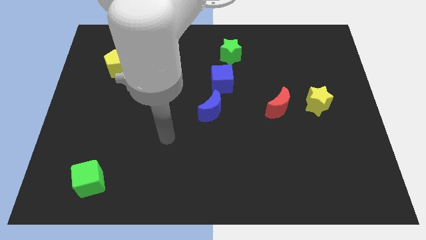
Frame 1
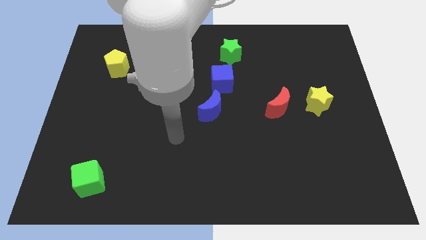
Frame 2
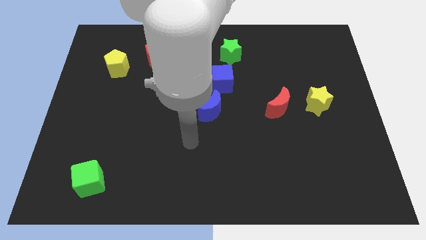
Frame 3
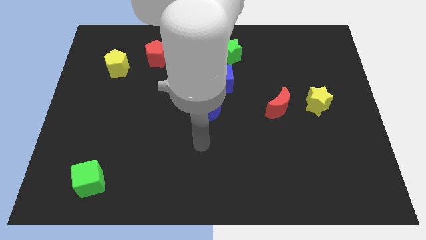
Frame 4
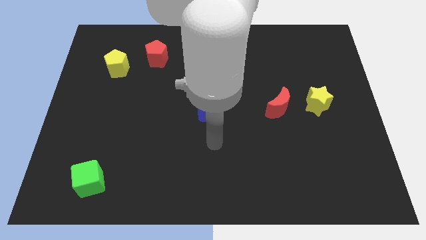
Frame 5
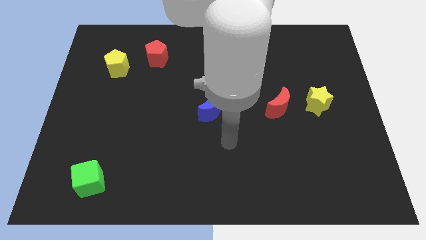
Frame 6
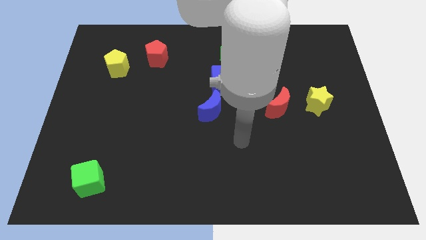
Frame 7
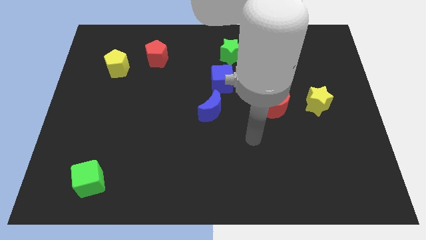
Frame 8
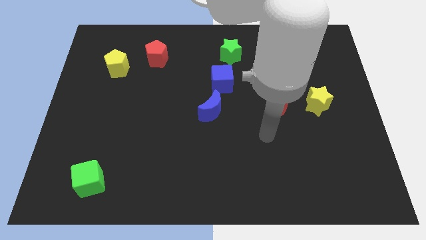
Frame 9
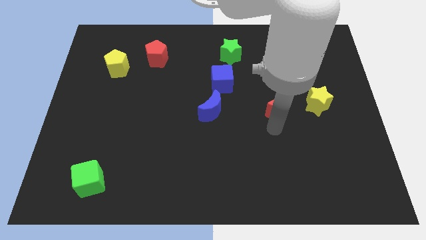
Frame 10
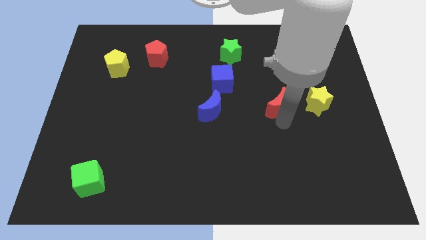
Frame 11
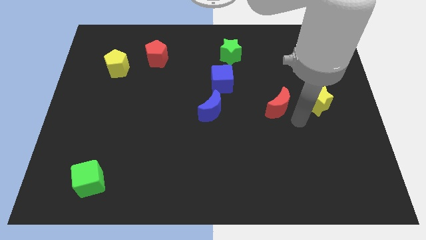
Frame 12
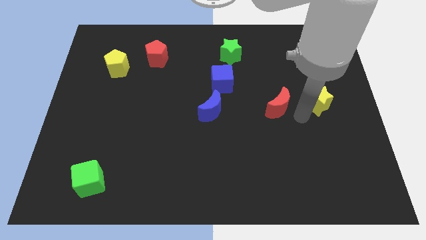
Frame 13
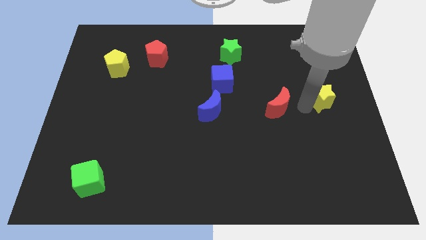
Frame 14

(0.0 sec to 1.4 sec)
separate the red moon from the yellow star

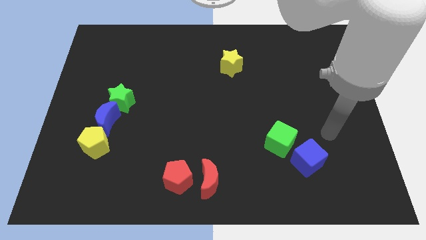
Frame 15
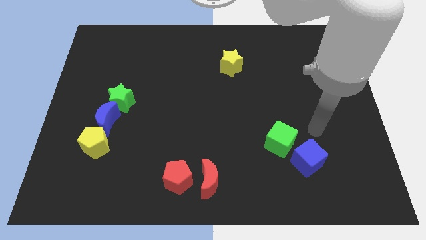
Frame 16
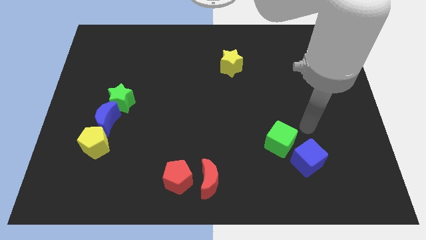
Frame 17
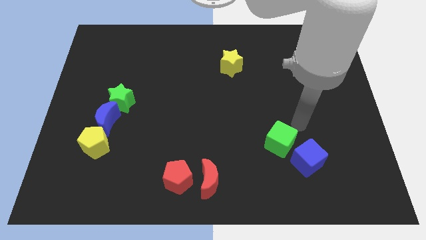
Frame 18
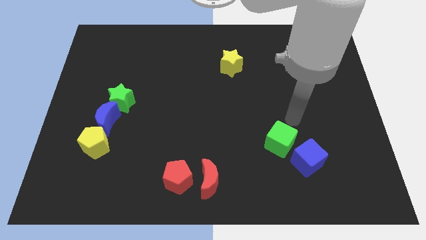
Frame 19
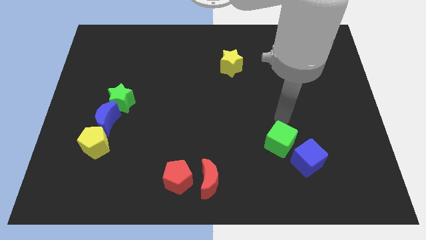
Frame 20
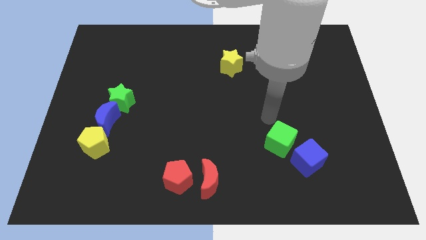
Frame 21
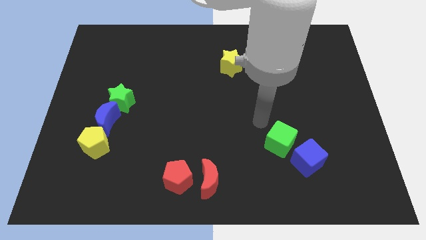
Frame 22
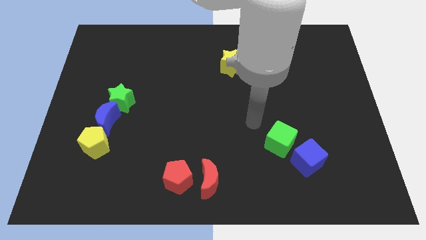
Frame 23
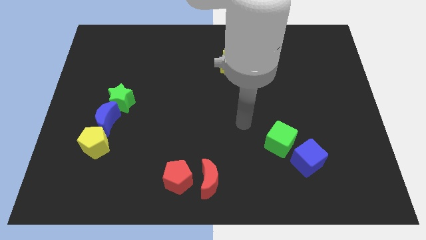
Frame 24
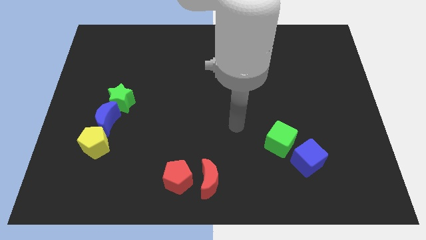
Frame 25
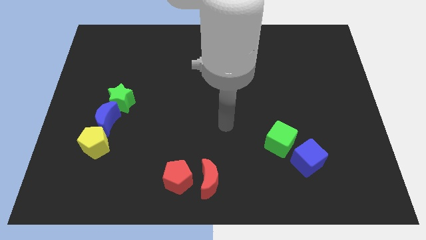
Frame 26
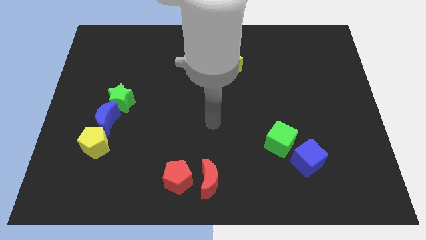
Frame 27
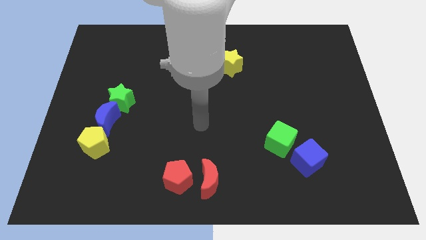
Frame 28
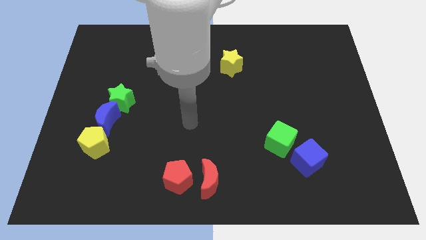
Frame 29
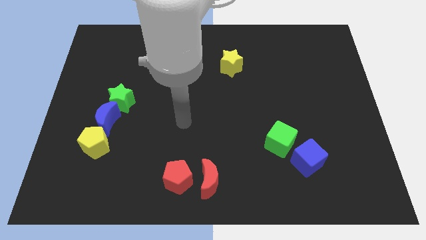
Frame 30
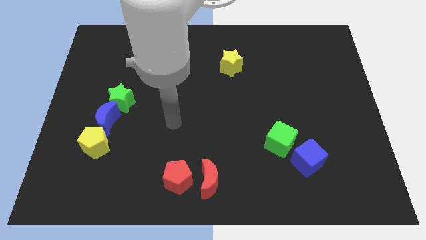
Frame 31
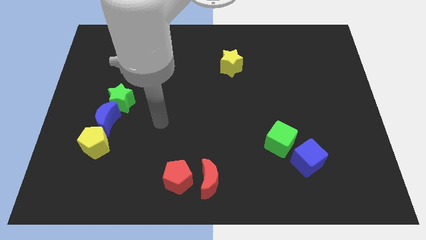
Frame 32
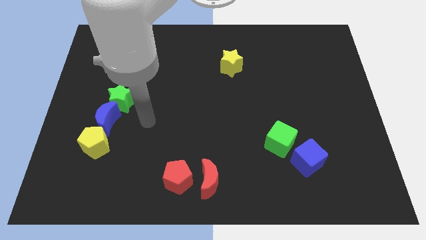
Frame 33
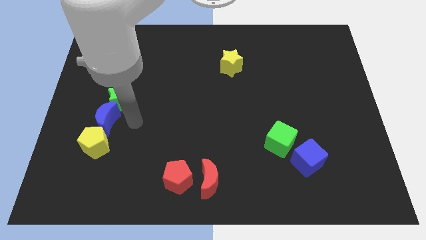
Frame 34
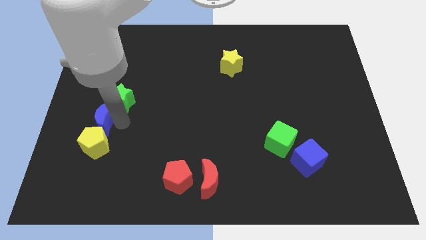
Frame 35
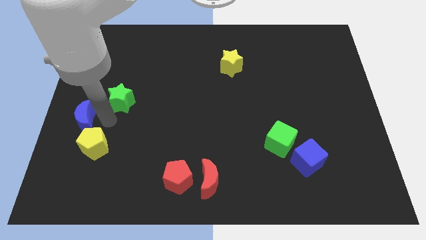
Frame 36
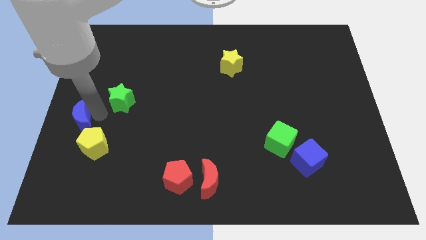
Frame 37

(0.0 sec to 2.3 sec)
separate the green star from the blue moon

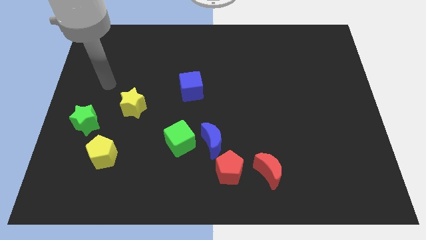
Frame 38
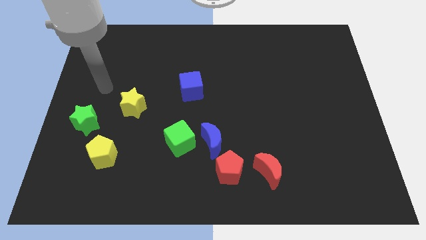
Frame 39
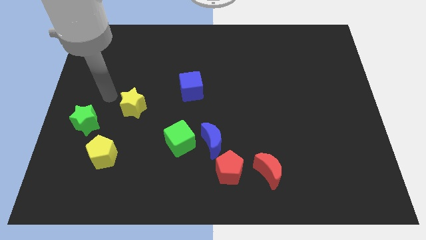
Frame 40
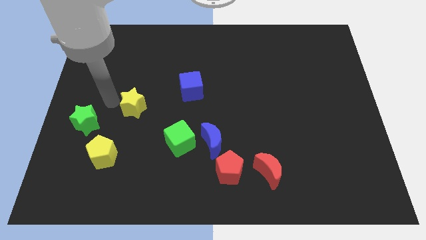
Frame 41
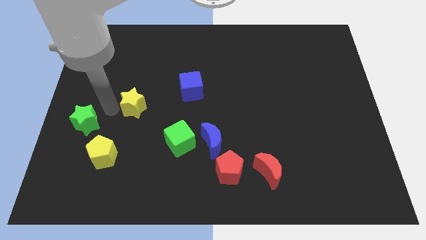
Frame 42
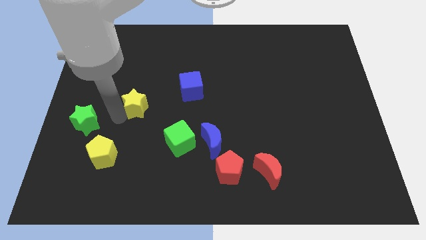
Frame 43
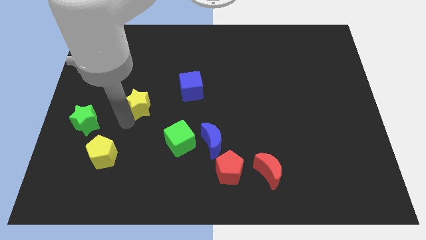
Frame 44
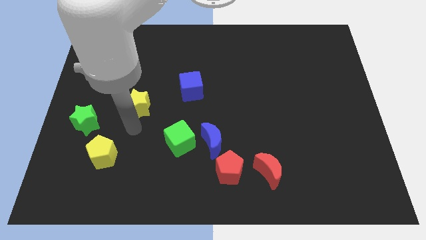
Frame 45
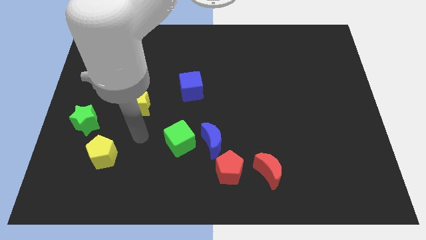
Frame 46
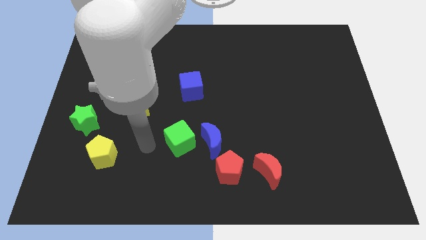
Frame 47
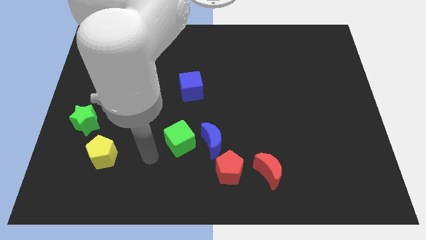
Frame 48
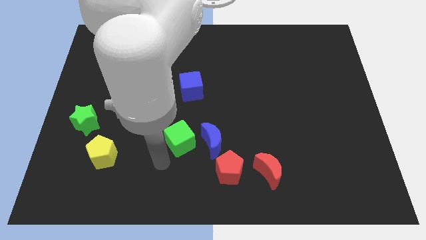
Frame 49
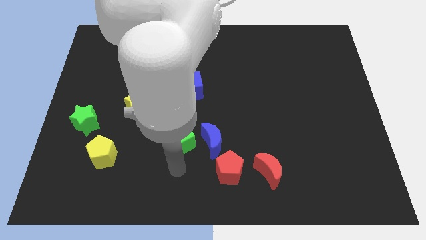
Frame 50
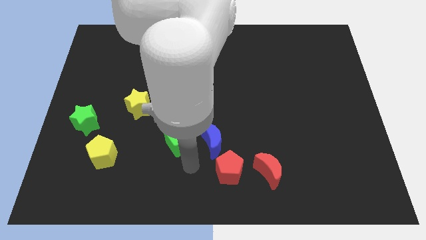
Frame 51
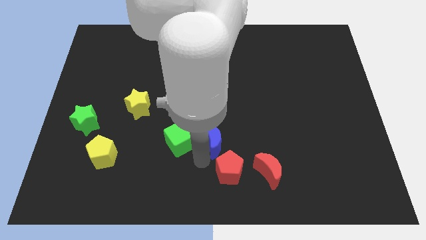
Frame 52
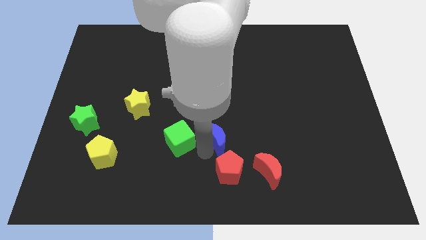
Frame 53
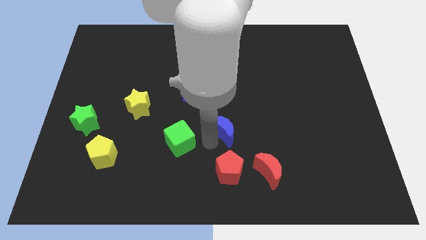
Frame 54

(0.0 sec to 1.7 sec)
move the green cube away from the blue moon

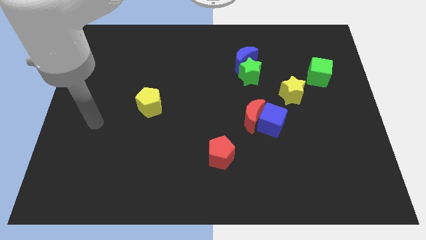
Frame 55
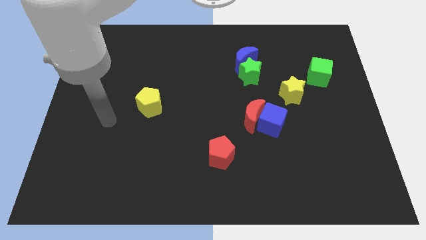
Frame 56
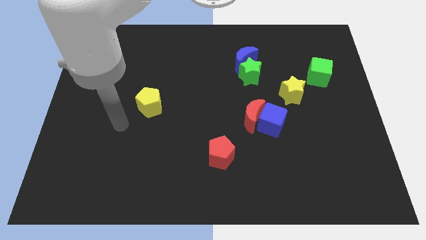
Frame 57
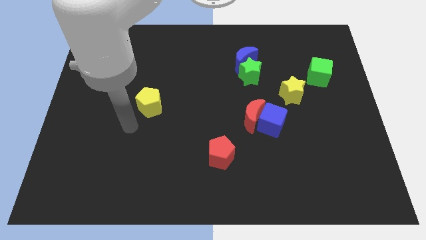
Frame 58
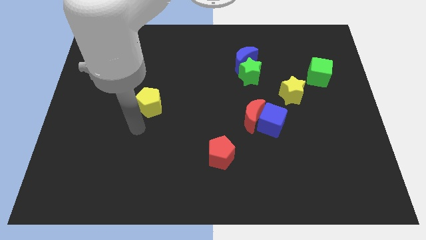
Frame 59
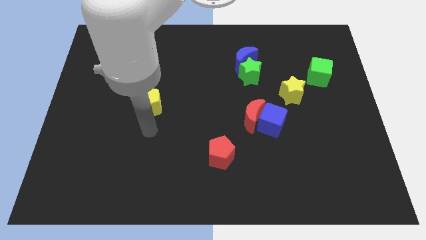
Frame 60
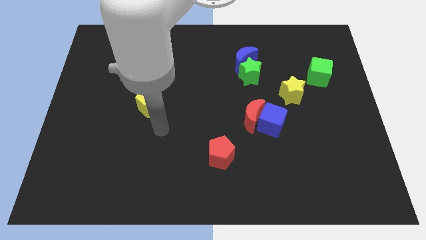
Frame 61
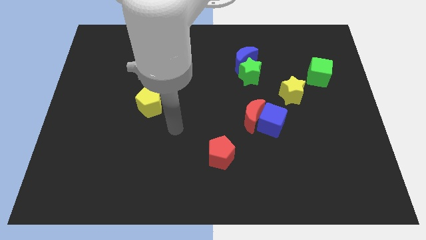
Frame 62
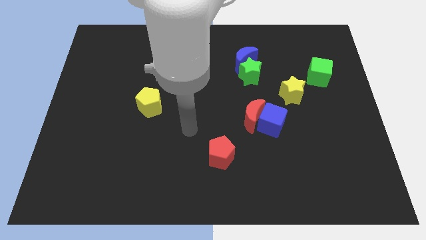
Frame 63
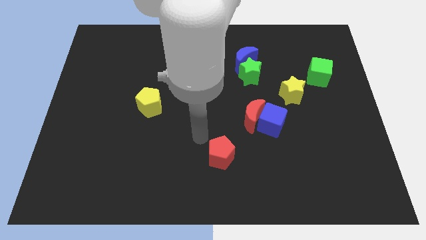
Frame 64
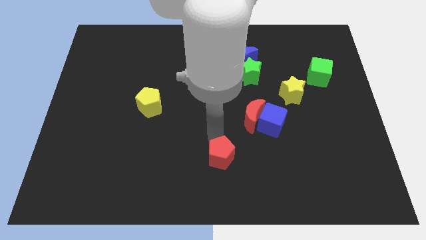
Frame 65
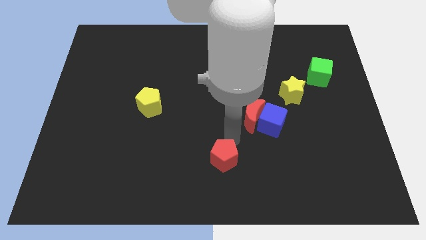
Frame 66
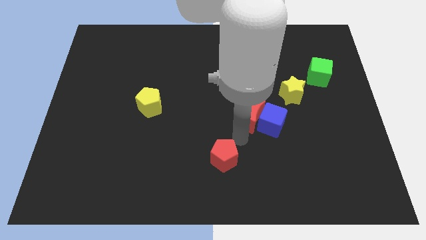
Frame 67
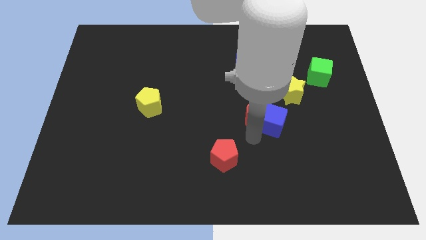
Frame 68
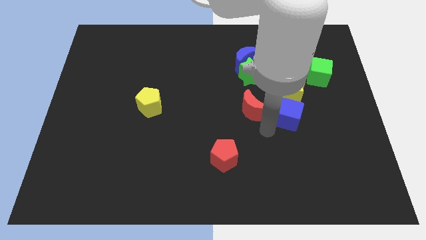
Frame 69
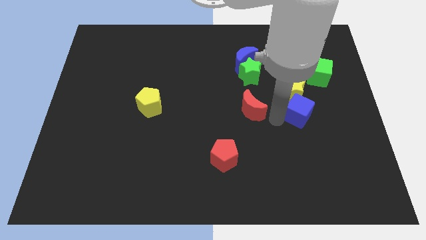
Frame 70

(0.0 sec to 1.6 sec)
pull the red moon apart from the blue cube

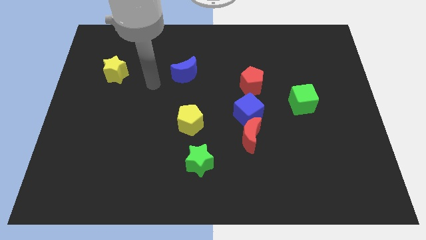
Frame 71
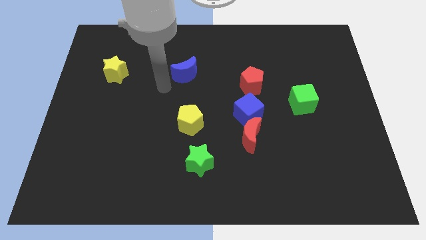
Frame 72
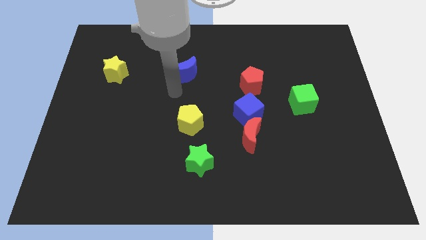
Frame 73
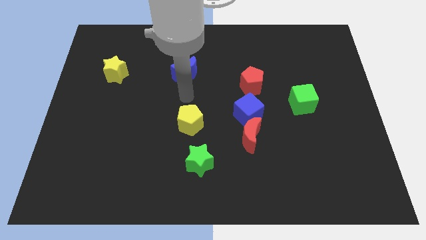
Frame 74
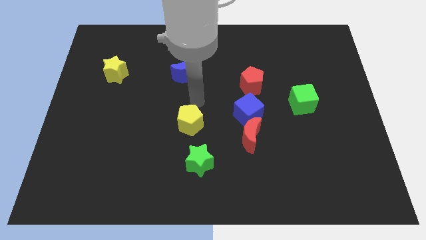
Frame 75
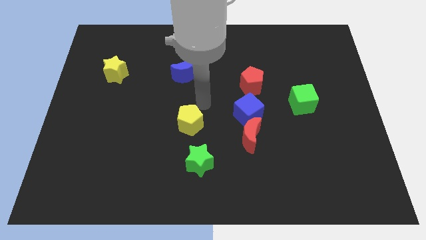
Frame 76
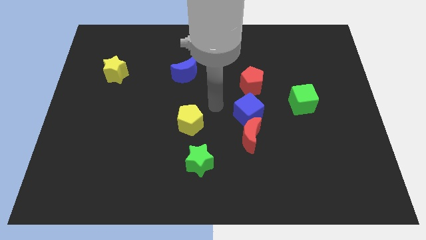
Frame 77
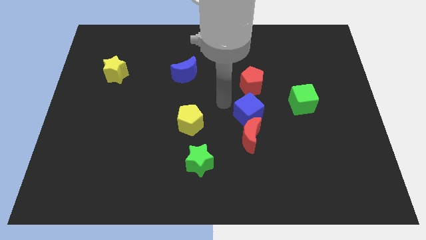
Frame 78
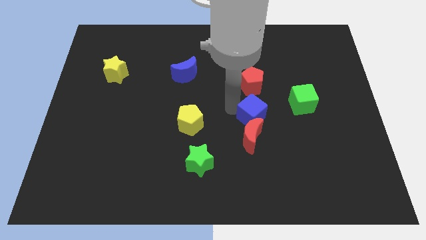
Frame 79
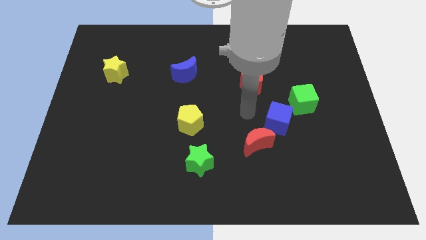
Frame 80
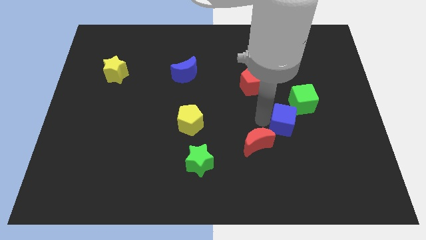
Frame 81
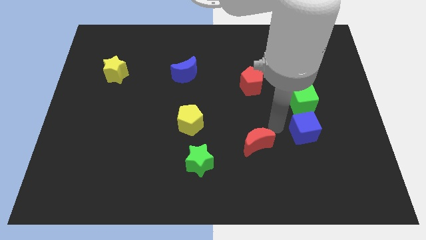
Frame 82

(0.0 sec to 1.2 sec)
separate the red moon from the blue cube

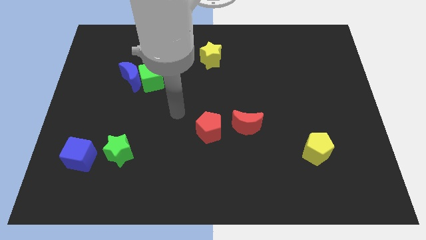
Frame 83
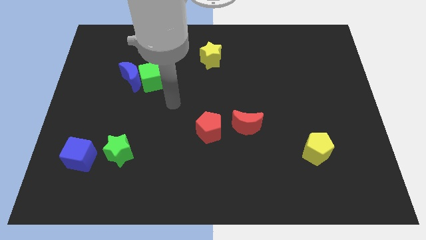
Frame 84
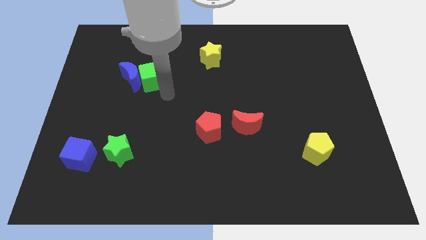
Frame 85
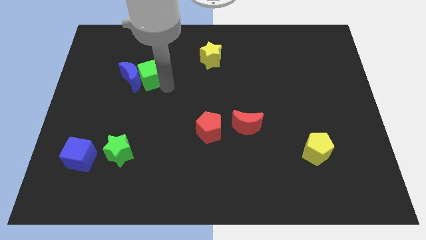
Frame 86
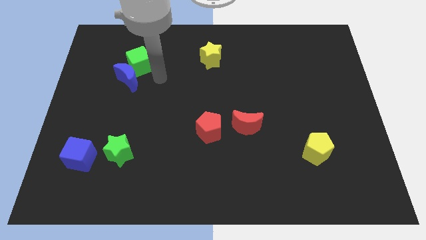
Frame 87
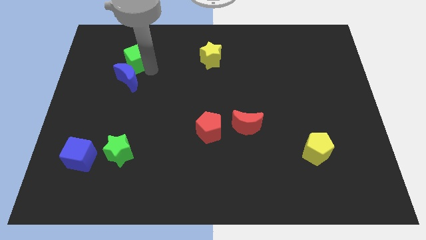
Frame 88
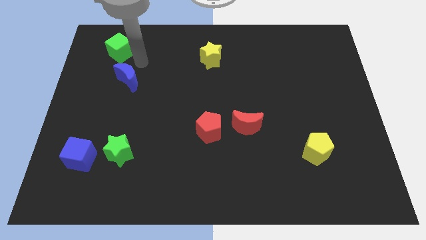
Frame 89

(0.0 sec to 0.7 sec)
pull the blue moon apart from the green cube

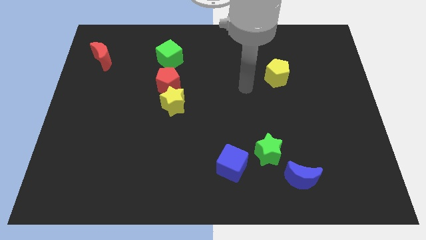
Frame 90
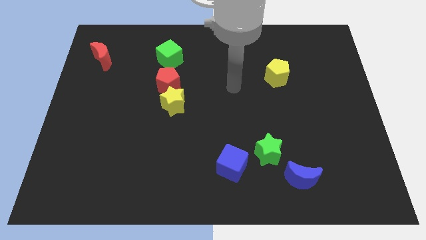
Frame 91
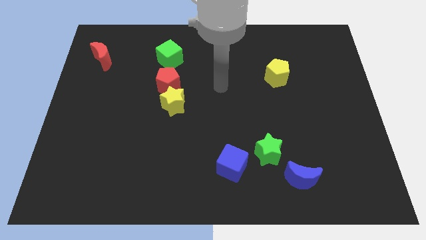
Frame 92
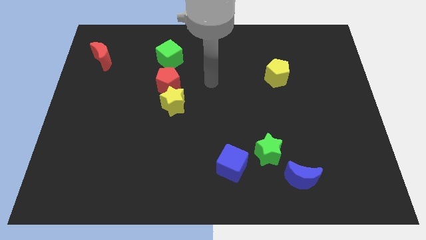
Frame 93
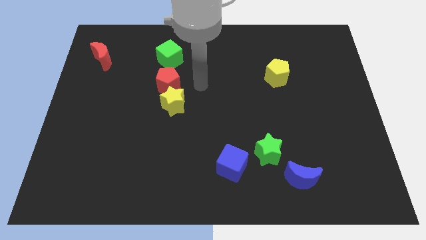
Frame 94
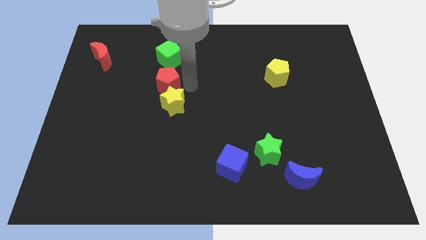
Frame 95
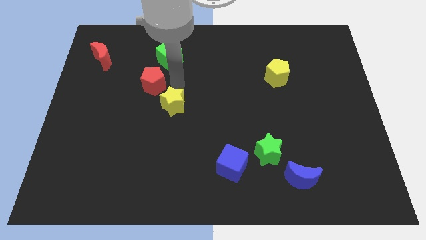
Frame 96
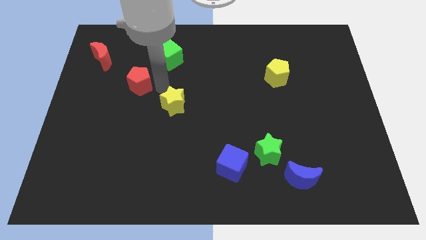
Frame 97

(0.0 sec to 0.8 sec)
move the yellow star away from the red pentagon
